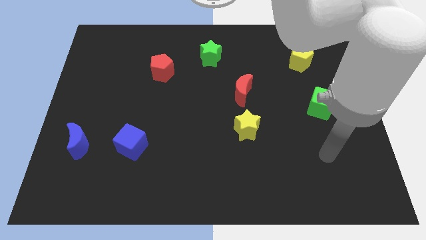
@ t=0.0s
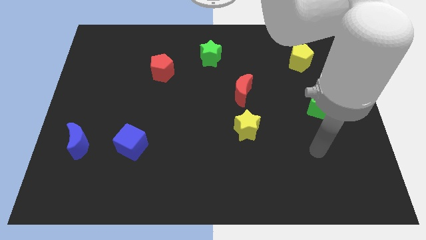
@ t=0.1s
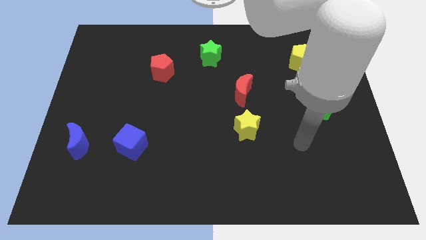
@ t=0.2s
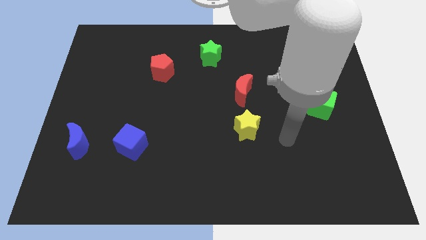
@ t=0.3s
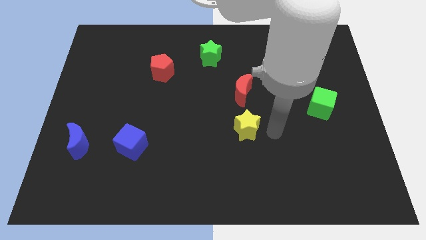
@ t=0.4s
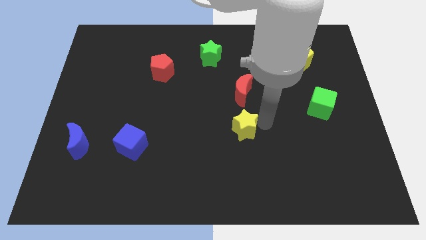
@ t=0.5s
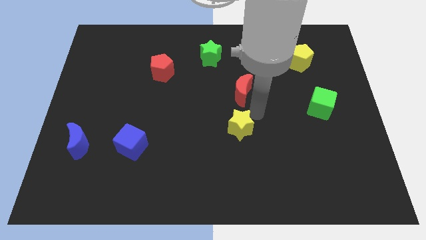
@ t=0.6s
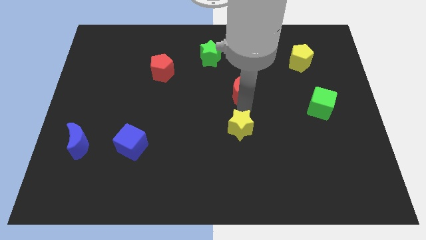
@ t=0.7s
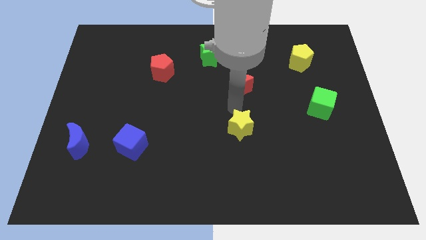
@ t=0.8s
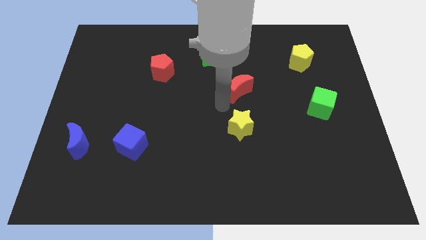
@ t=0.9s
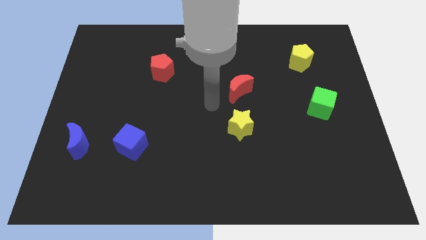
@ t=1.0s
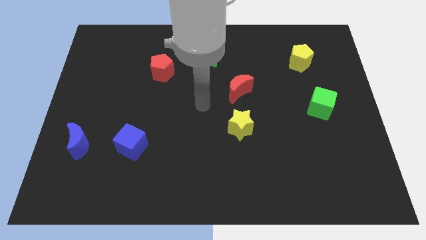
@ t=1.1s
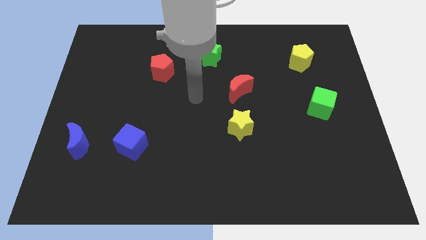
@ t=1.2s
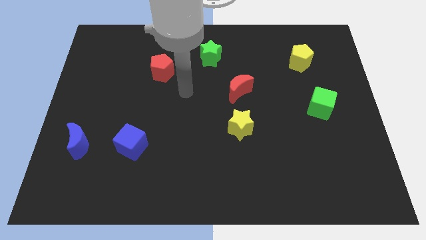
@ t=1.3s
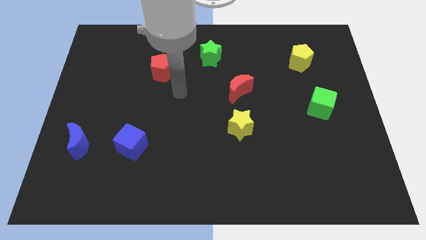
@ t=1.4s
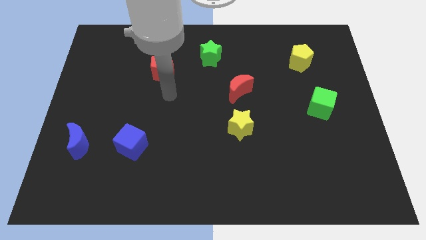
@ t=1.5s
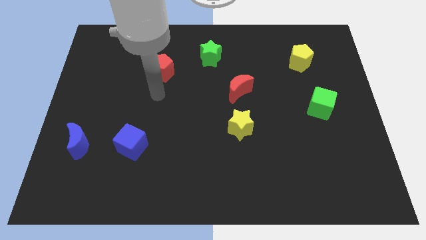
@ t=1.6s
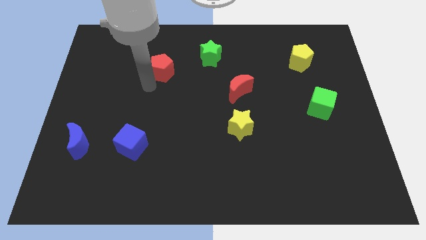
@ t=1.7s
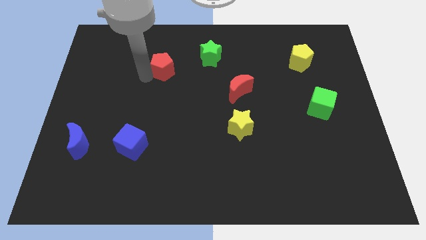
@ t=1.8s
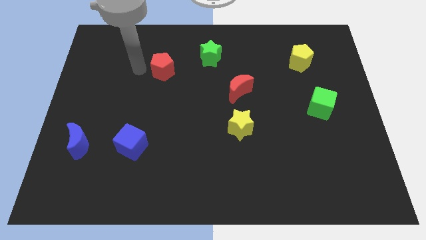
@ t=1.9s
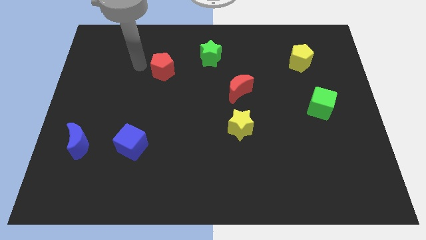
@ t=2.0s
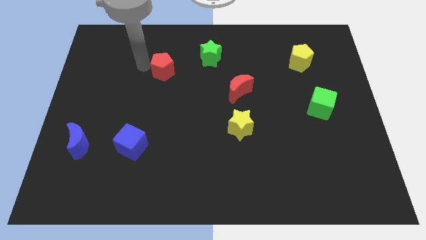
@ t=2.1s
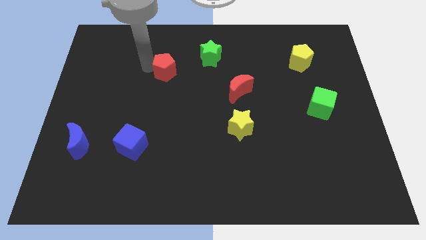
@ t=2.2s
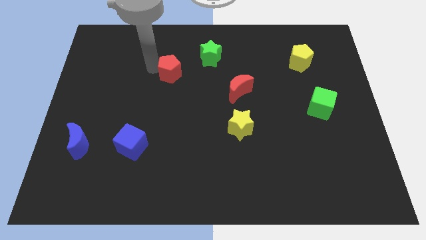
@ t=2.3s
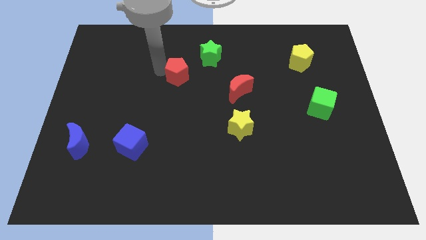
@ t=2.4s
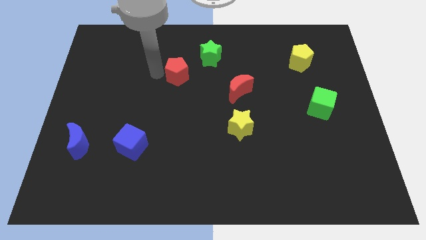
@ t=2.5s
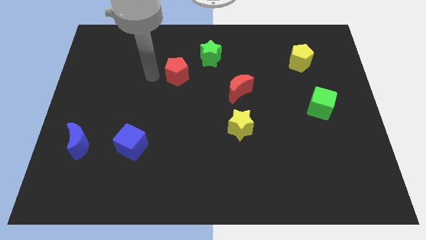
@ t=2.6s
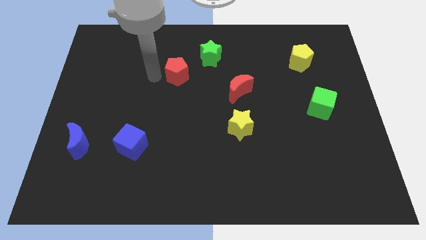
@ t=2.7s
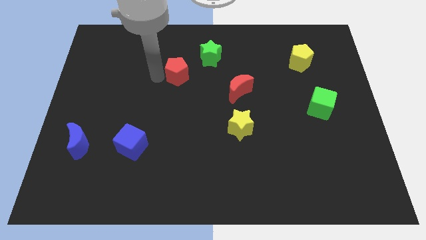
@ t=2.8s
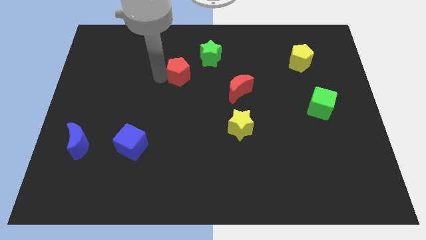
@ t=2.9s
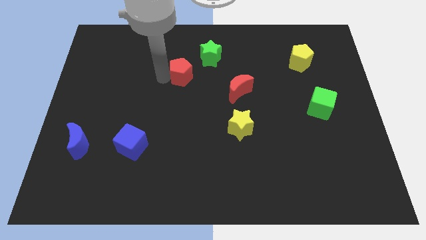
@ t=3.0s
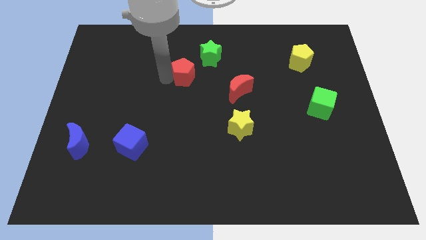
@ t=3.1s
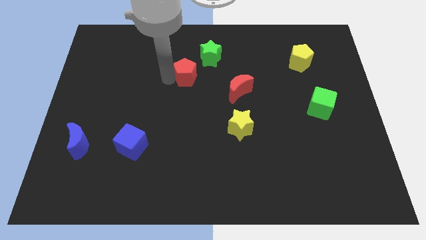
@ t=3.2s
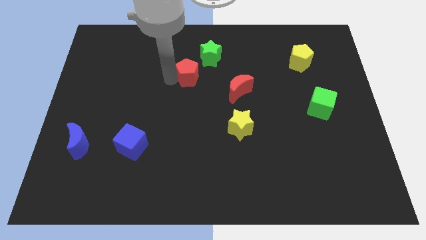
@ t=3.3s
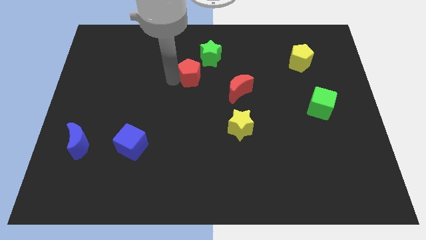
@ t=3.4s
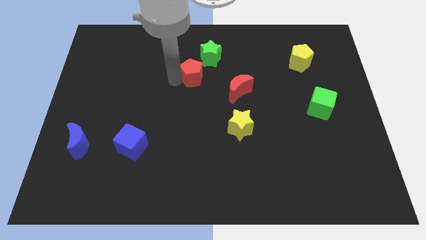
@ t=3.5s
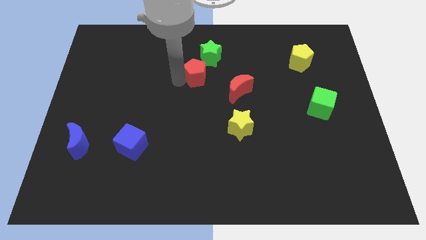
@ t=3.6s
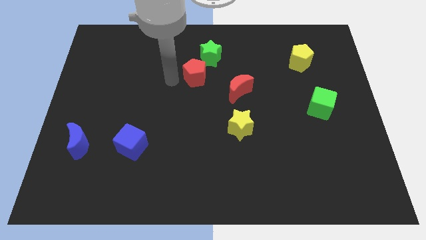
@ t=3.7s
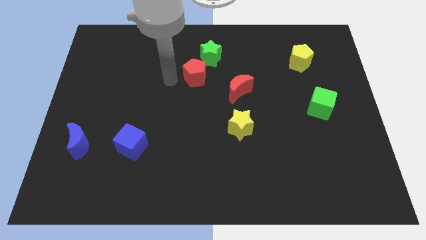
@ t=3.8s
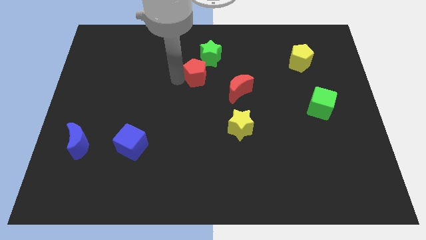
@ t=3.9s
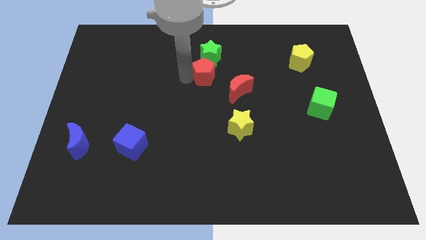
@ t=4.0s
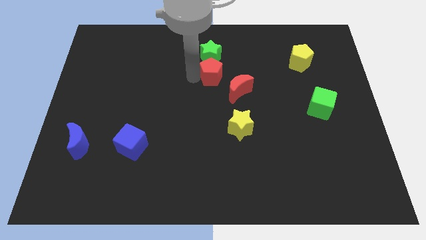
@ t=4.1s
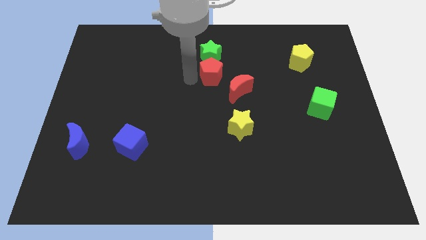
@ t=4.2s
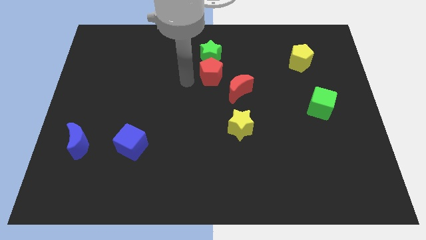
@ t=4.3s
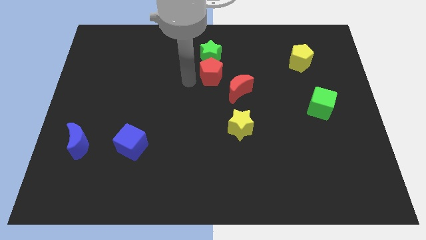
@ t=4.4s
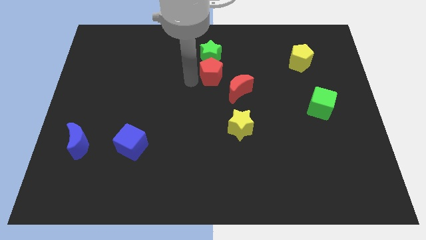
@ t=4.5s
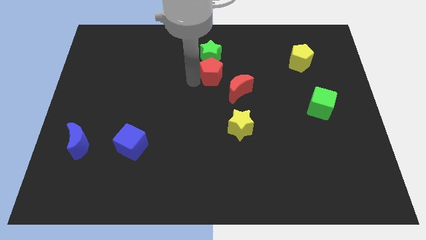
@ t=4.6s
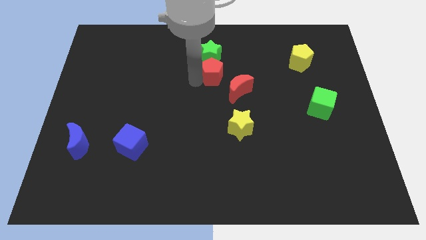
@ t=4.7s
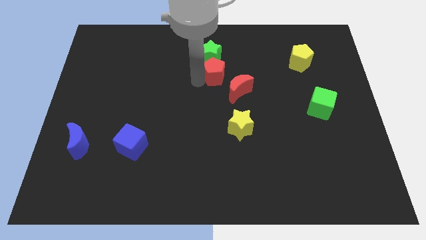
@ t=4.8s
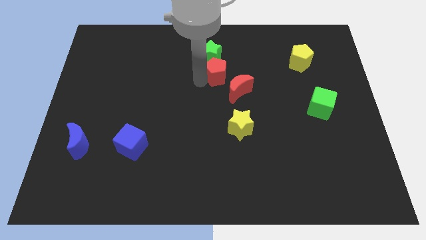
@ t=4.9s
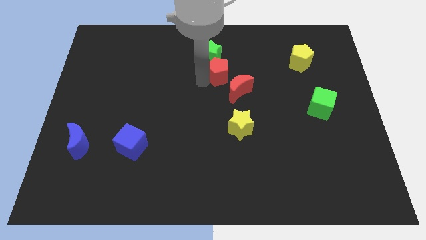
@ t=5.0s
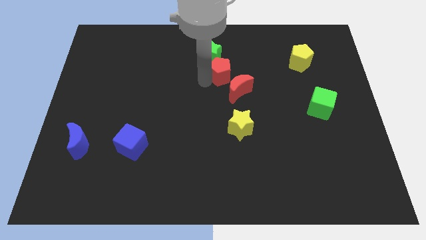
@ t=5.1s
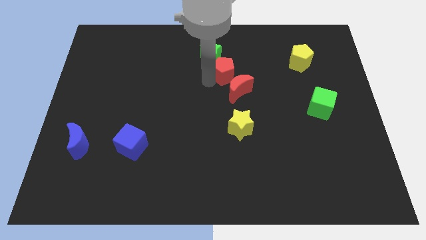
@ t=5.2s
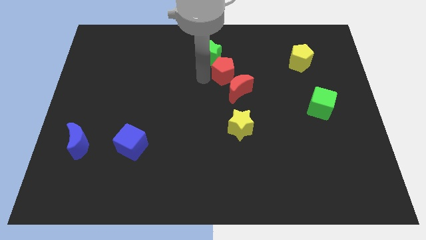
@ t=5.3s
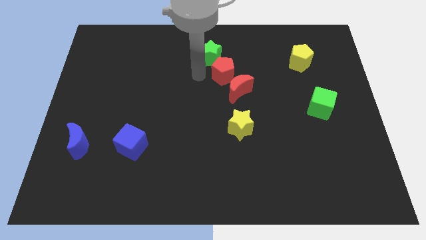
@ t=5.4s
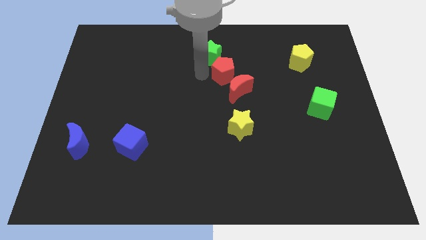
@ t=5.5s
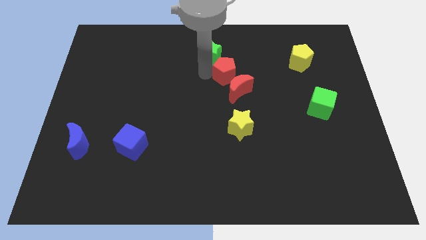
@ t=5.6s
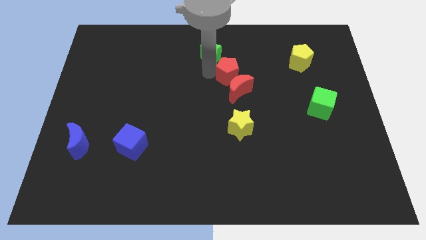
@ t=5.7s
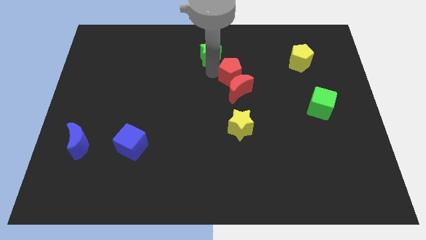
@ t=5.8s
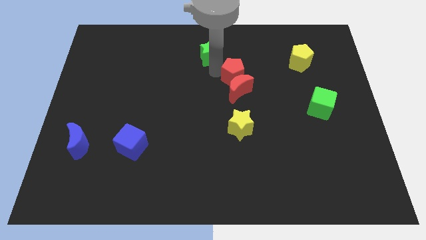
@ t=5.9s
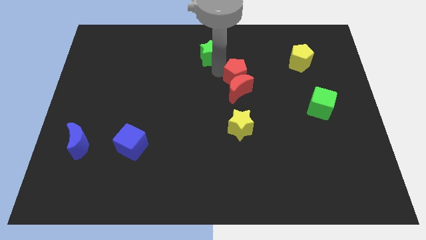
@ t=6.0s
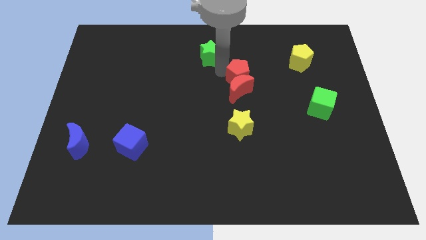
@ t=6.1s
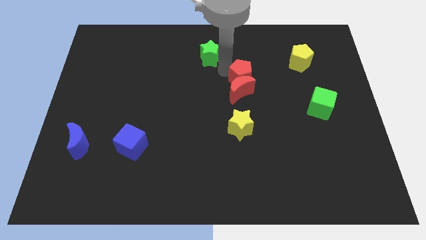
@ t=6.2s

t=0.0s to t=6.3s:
move the red pentagon right

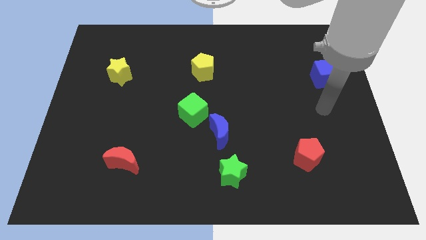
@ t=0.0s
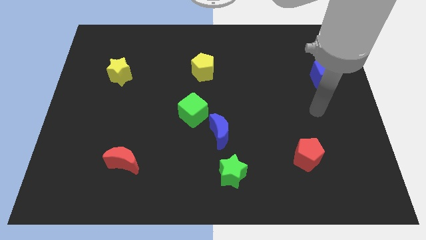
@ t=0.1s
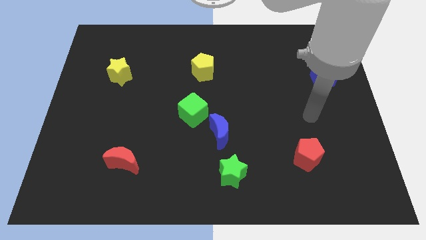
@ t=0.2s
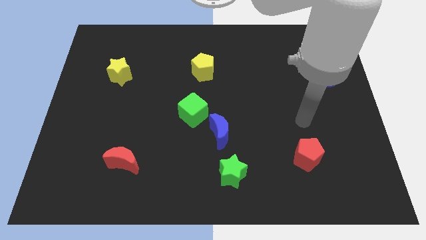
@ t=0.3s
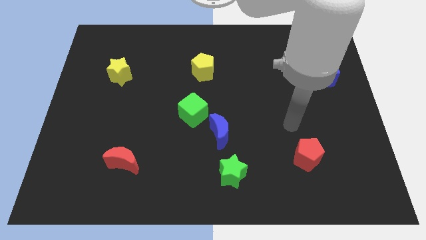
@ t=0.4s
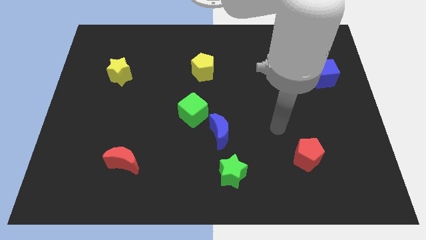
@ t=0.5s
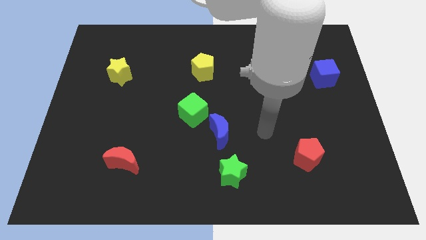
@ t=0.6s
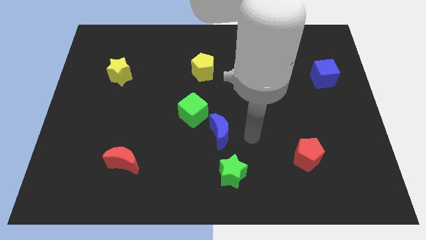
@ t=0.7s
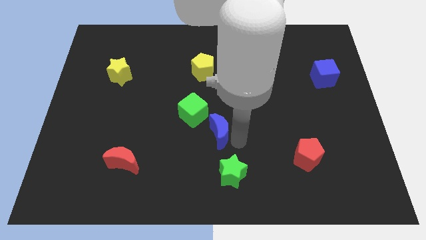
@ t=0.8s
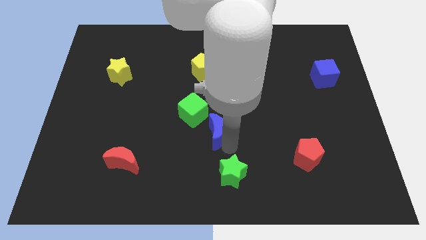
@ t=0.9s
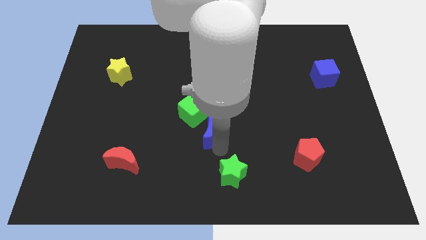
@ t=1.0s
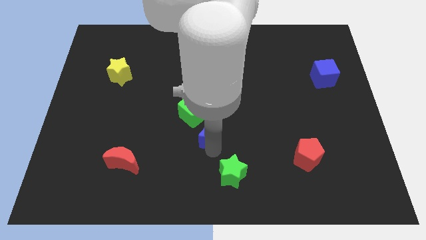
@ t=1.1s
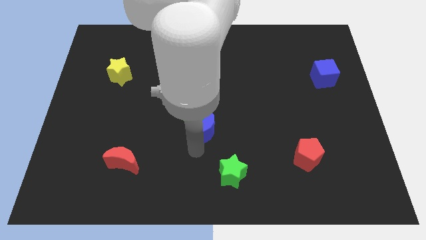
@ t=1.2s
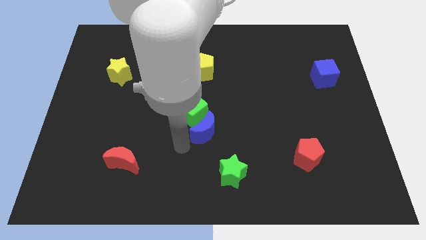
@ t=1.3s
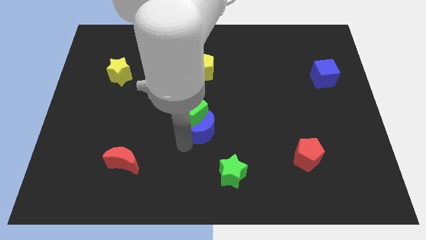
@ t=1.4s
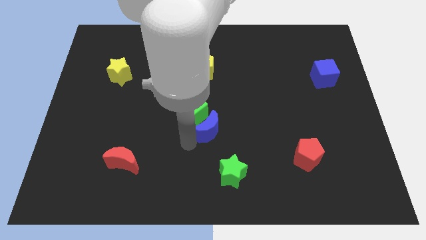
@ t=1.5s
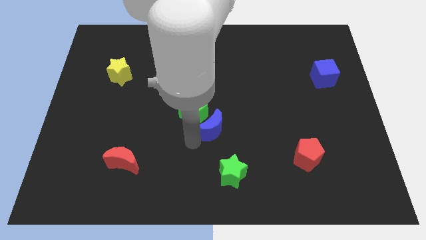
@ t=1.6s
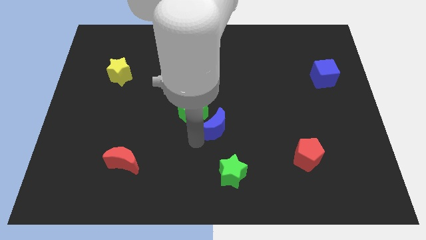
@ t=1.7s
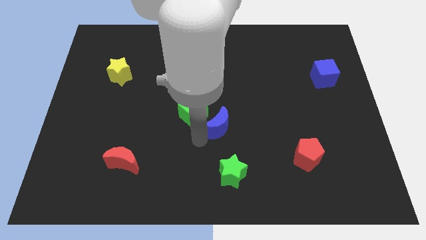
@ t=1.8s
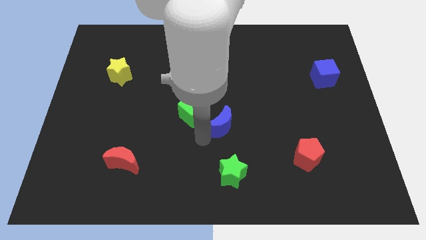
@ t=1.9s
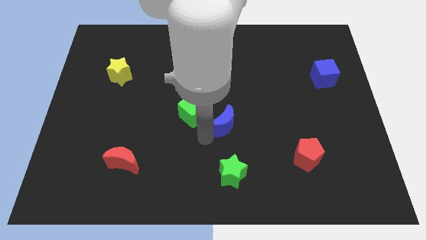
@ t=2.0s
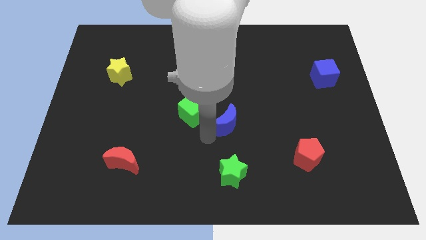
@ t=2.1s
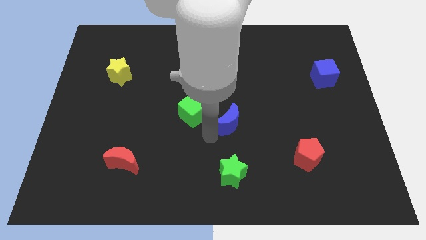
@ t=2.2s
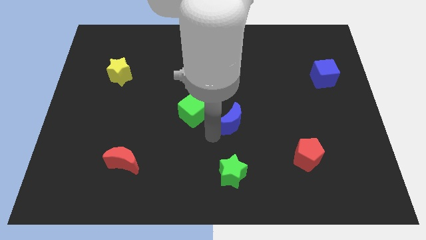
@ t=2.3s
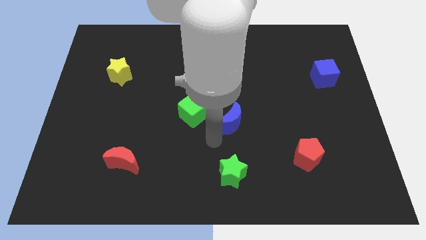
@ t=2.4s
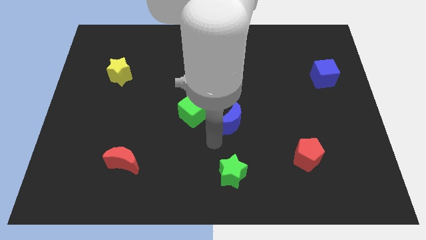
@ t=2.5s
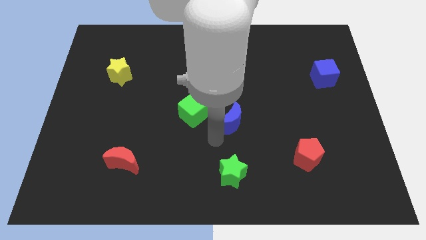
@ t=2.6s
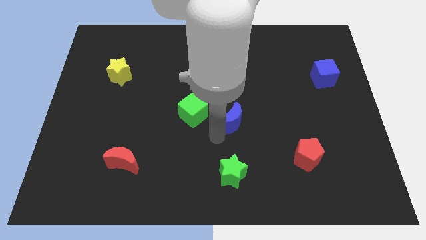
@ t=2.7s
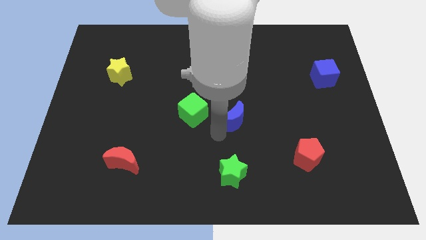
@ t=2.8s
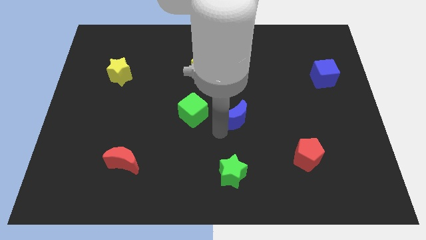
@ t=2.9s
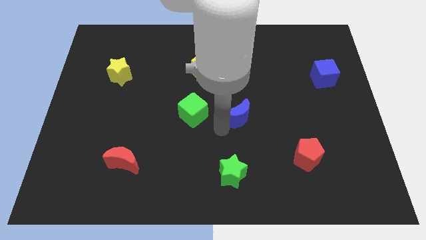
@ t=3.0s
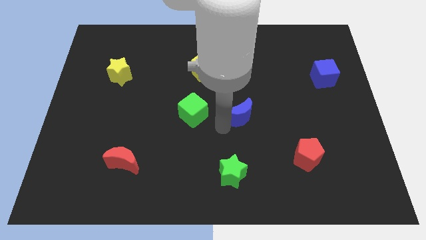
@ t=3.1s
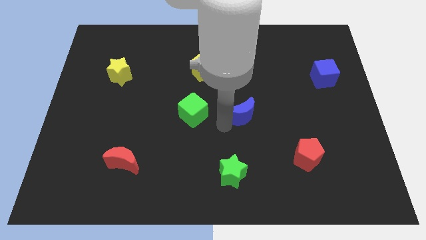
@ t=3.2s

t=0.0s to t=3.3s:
slightly push the blue moon upwards and right diagonally
